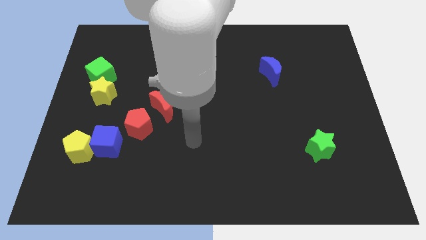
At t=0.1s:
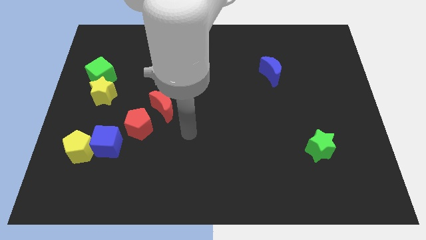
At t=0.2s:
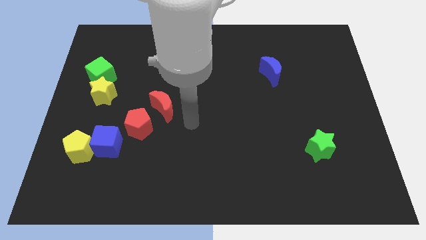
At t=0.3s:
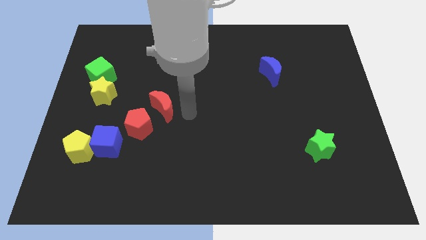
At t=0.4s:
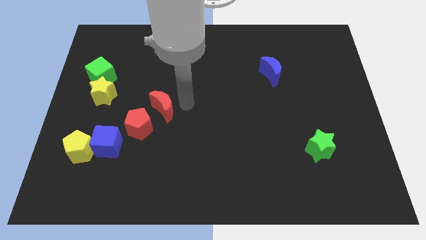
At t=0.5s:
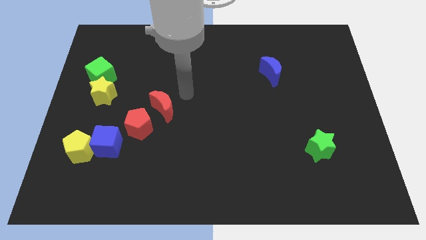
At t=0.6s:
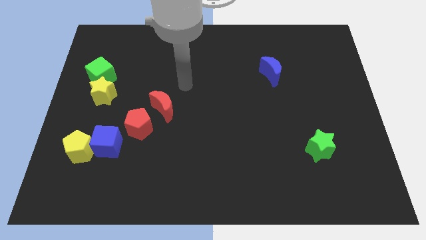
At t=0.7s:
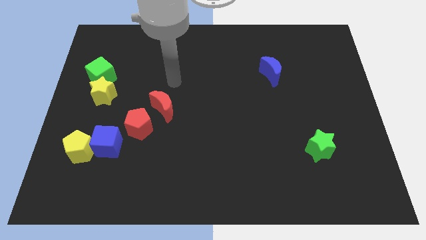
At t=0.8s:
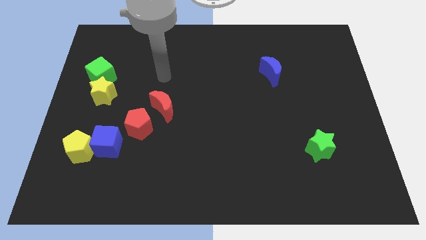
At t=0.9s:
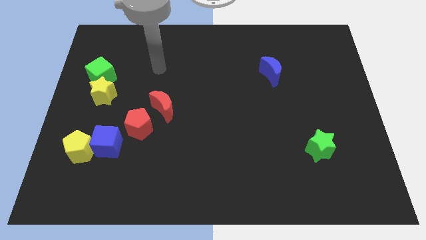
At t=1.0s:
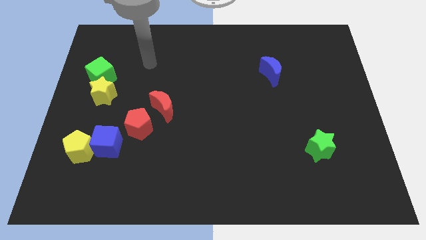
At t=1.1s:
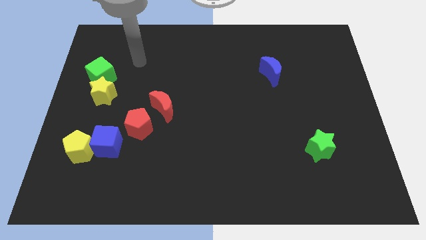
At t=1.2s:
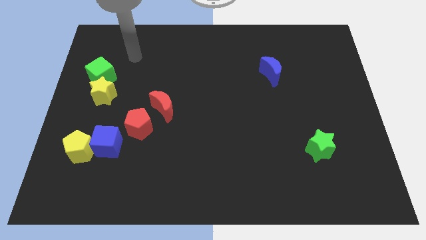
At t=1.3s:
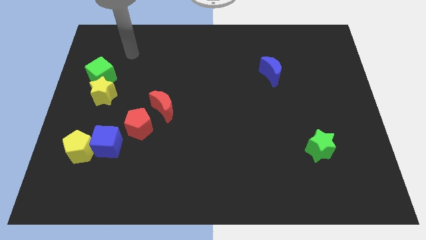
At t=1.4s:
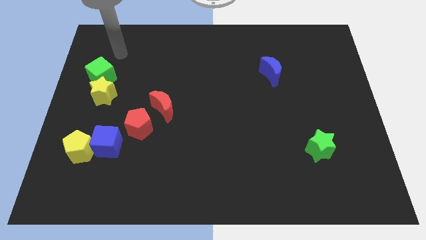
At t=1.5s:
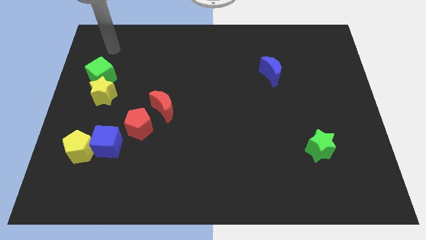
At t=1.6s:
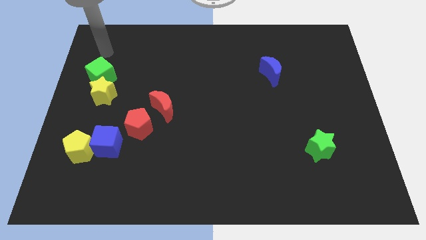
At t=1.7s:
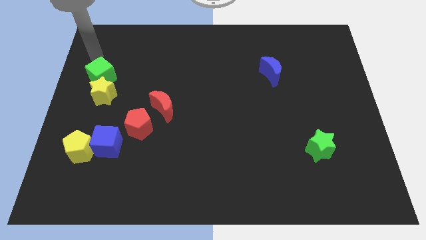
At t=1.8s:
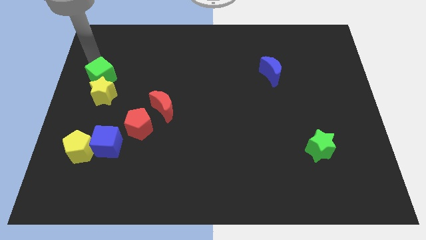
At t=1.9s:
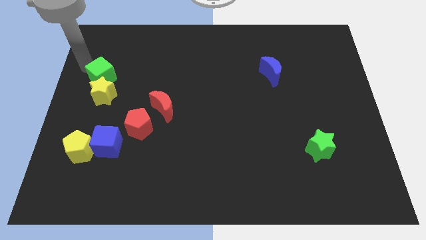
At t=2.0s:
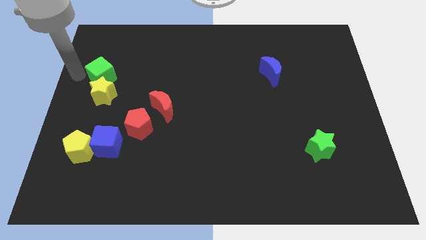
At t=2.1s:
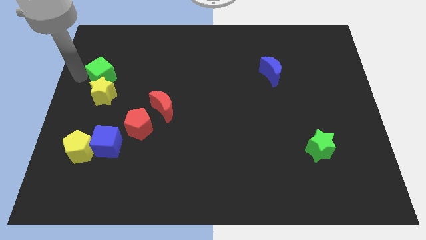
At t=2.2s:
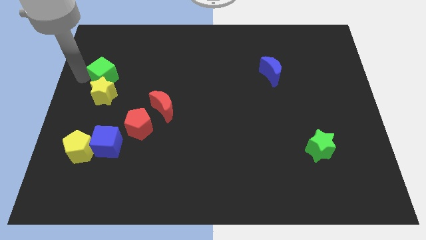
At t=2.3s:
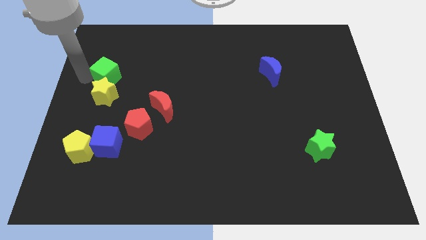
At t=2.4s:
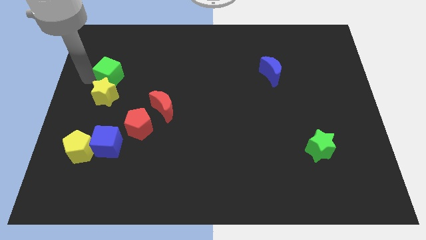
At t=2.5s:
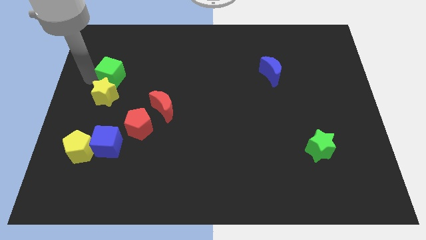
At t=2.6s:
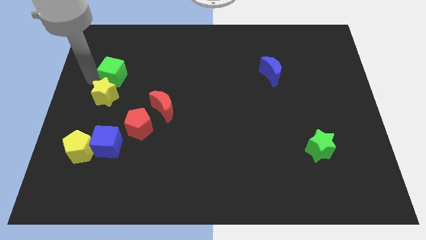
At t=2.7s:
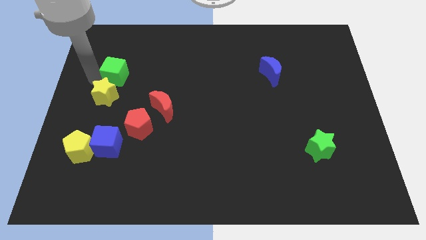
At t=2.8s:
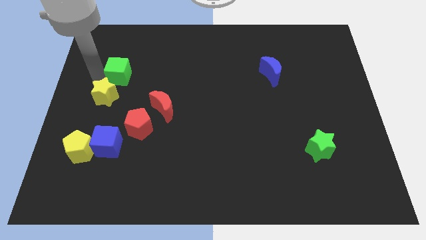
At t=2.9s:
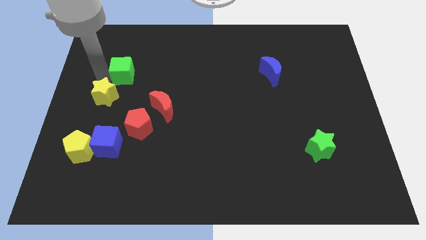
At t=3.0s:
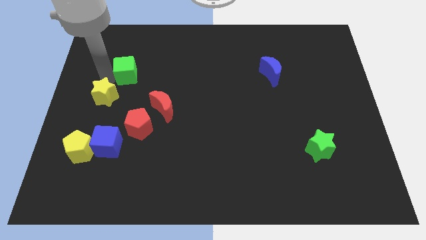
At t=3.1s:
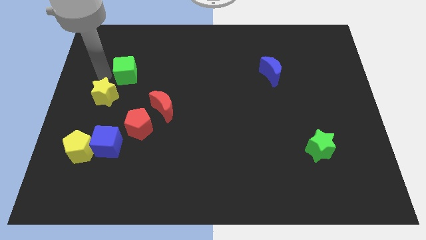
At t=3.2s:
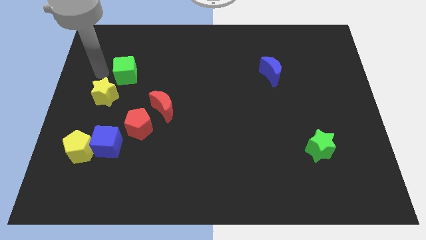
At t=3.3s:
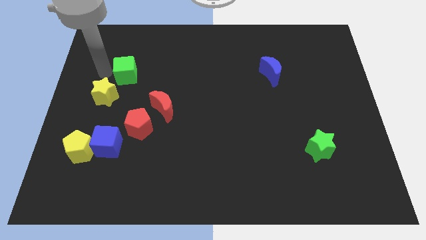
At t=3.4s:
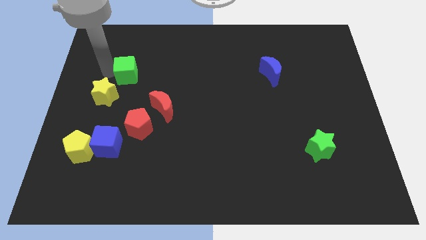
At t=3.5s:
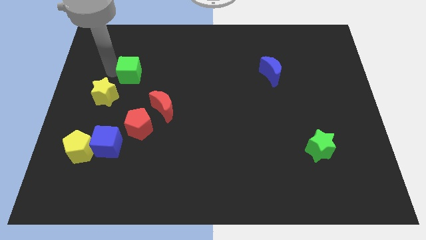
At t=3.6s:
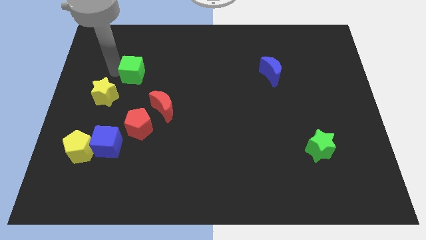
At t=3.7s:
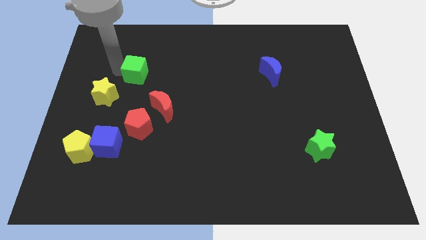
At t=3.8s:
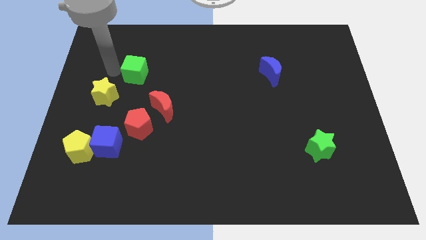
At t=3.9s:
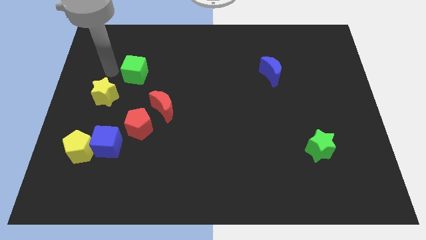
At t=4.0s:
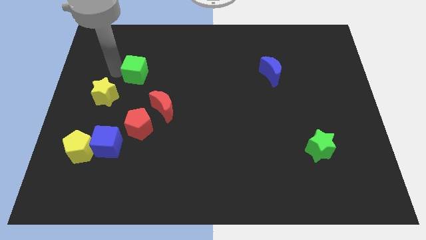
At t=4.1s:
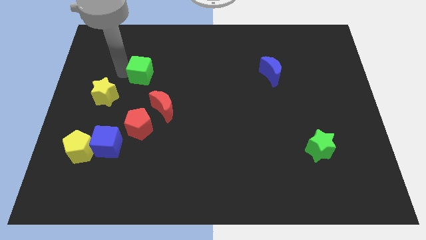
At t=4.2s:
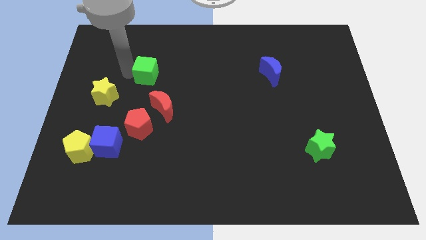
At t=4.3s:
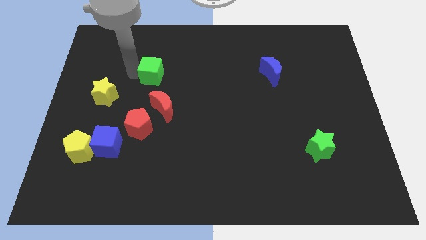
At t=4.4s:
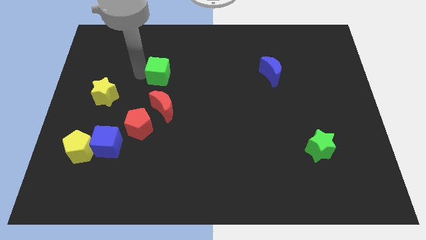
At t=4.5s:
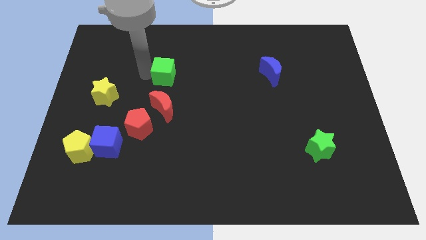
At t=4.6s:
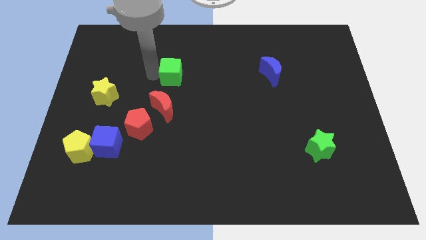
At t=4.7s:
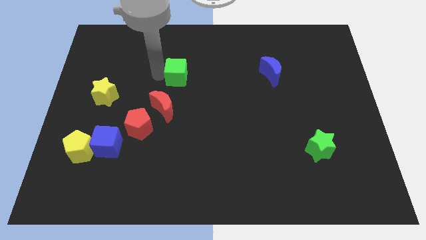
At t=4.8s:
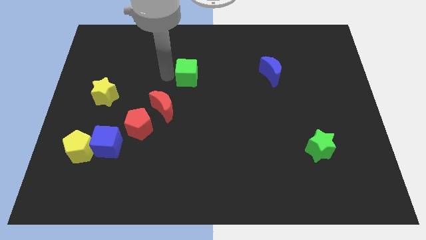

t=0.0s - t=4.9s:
slide the green cube to the right

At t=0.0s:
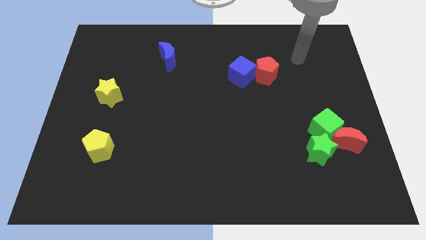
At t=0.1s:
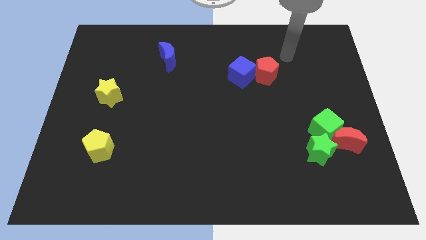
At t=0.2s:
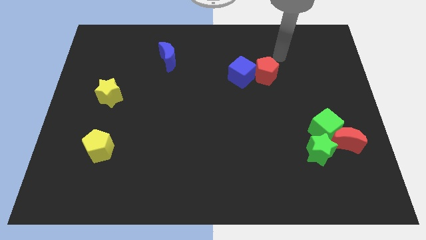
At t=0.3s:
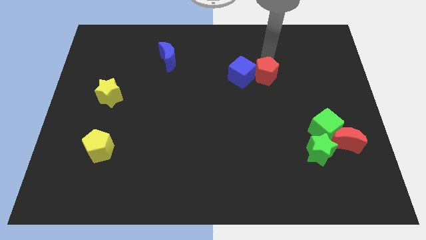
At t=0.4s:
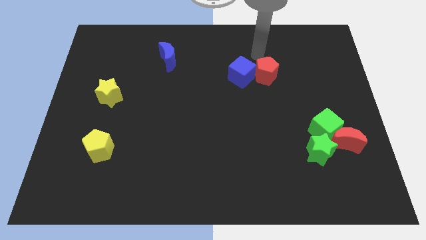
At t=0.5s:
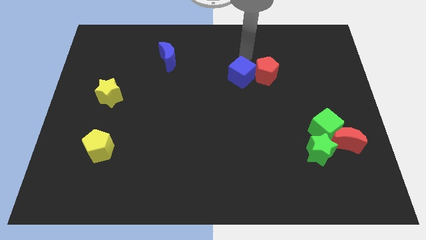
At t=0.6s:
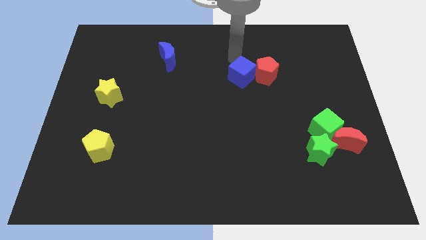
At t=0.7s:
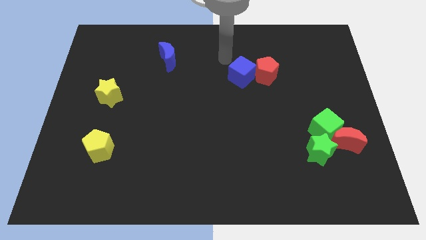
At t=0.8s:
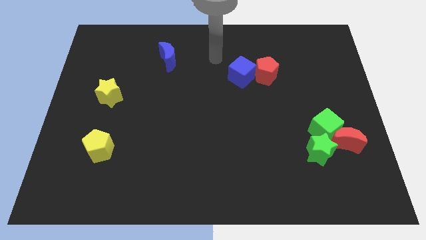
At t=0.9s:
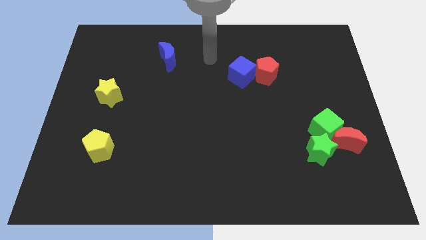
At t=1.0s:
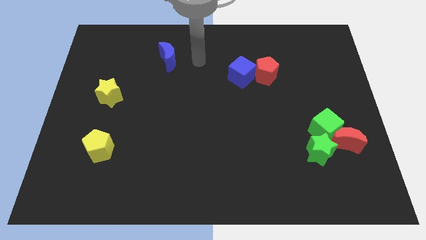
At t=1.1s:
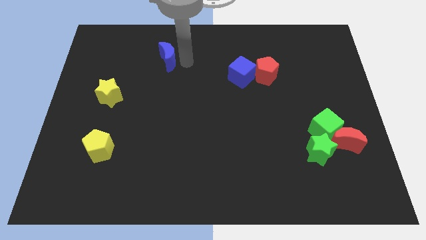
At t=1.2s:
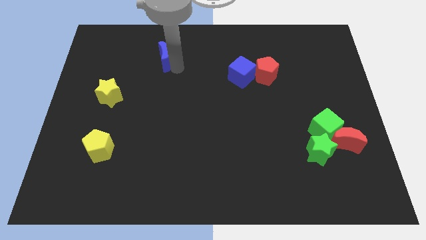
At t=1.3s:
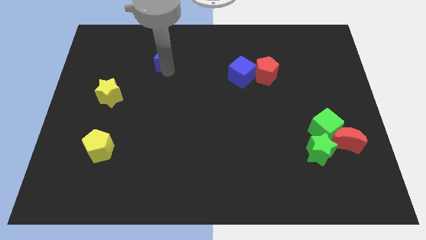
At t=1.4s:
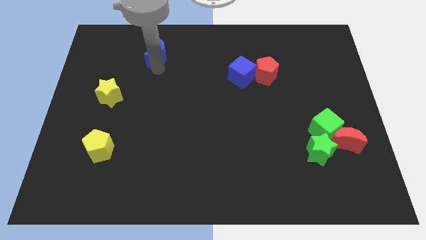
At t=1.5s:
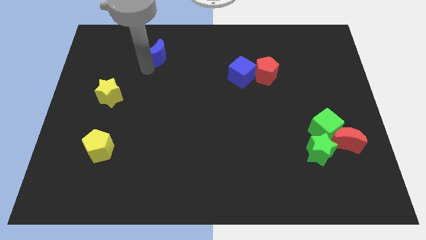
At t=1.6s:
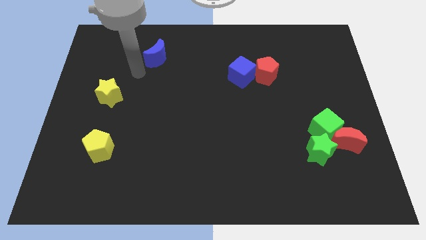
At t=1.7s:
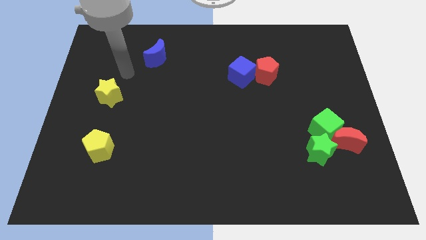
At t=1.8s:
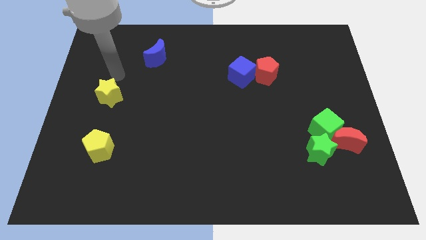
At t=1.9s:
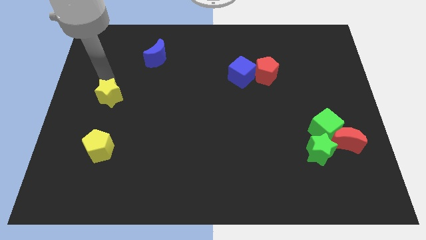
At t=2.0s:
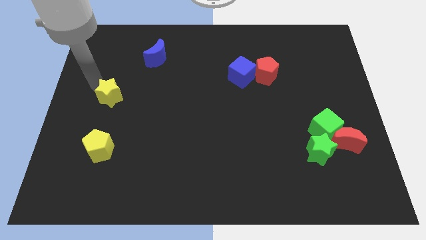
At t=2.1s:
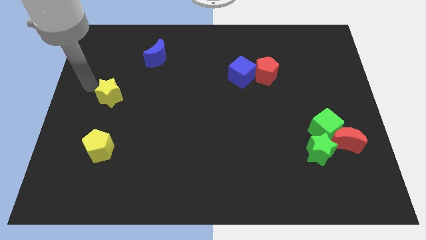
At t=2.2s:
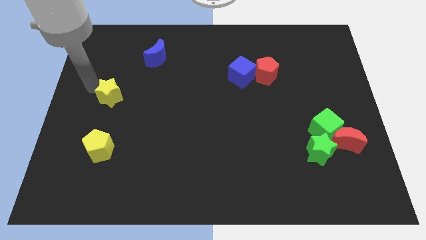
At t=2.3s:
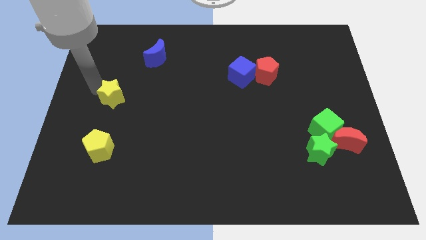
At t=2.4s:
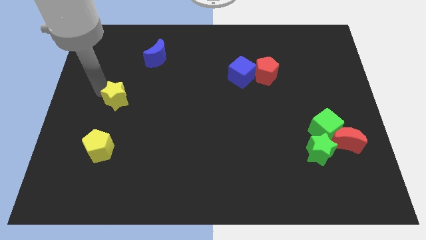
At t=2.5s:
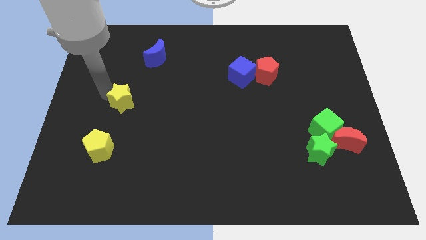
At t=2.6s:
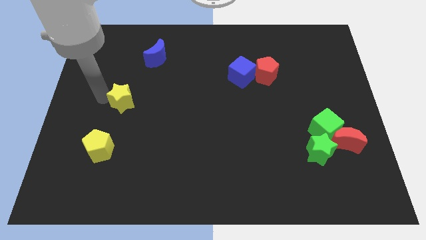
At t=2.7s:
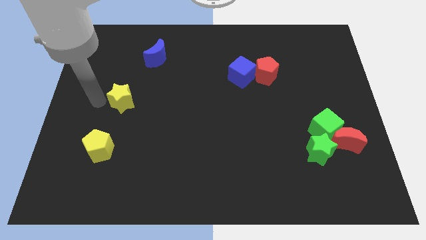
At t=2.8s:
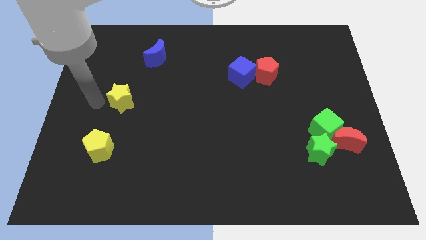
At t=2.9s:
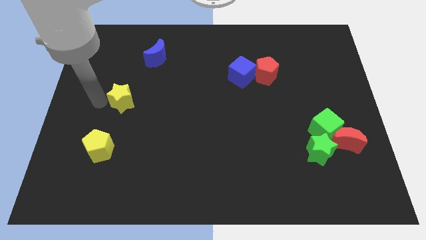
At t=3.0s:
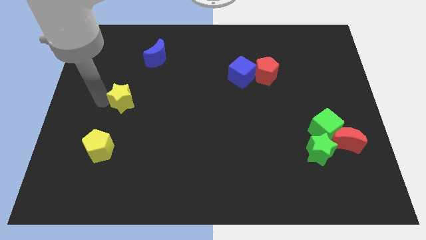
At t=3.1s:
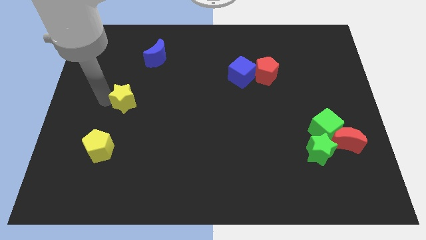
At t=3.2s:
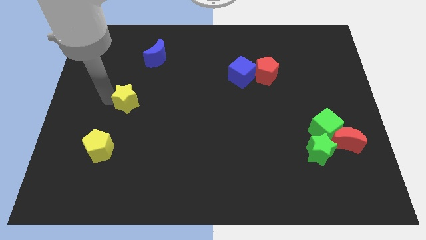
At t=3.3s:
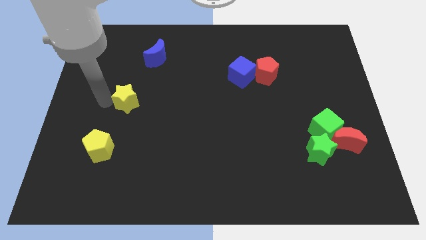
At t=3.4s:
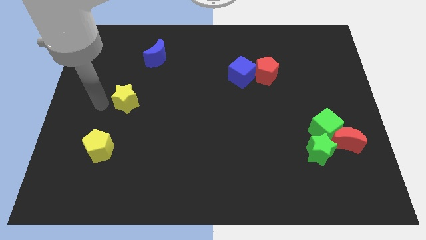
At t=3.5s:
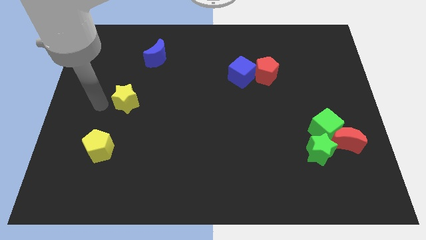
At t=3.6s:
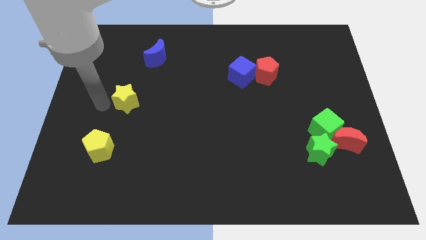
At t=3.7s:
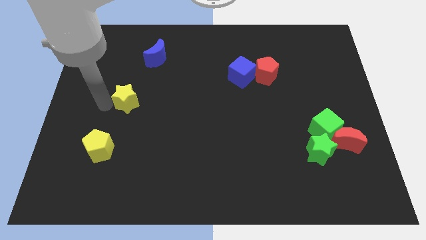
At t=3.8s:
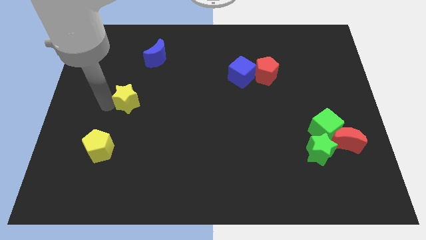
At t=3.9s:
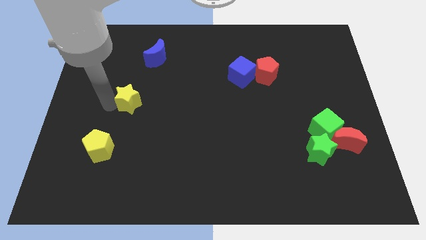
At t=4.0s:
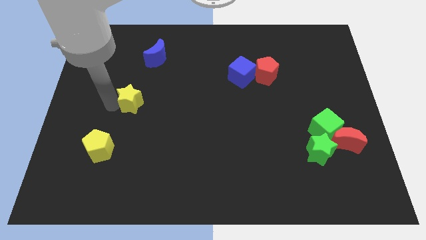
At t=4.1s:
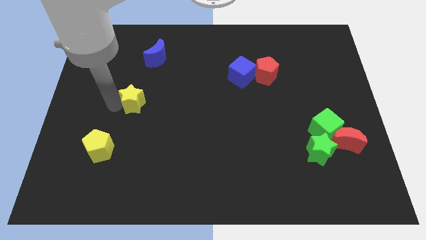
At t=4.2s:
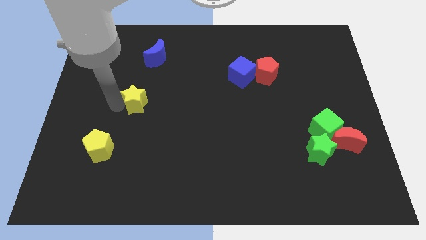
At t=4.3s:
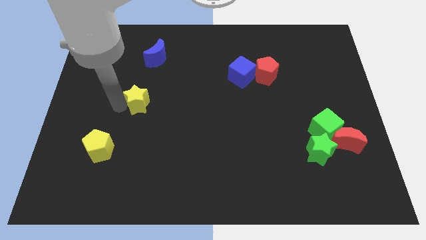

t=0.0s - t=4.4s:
push the yellow star right somewhat
